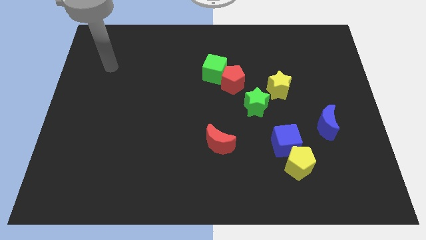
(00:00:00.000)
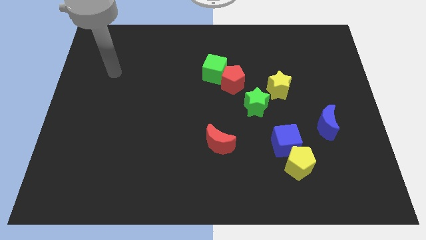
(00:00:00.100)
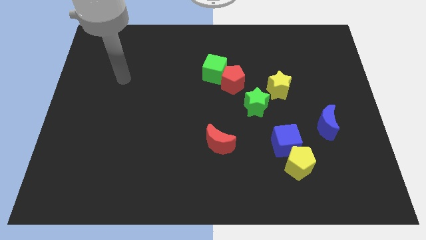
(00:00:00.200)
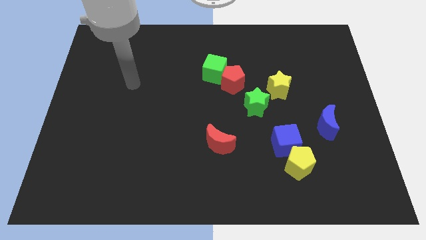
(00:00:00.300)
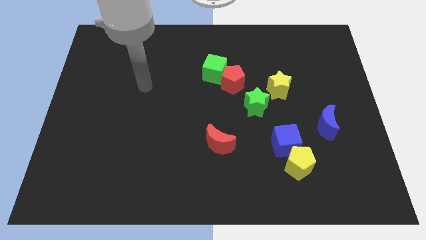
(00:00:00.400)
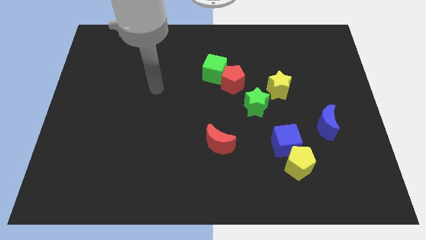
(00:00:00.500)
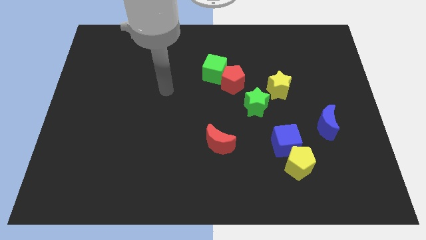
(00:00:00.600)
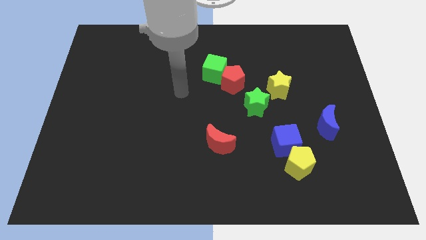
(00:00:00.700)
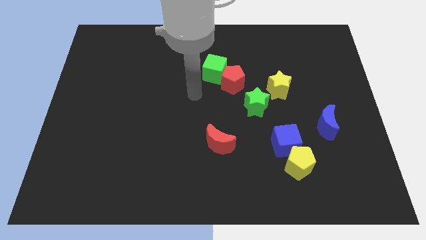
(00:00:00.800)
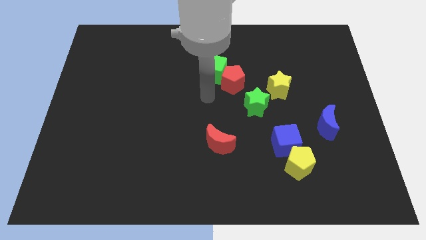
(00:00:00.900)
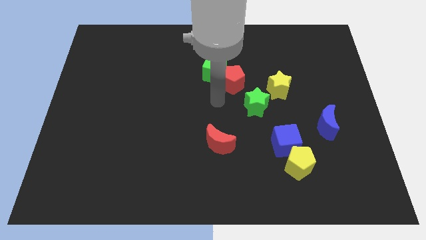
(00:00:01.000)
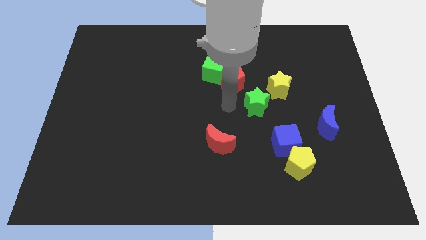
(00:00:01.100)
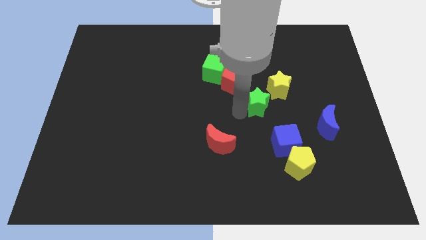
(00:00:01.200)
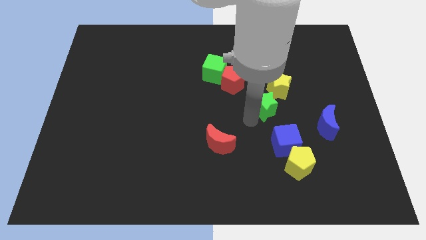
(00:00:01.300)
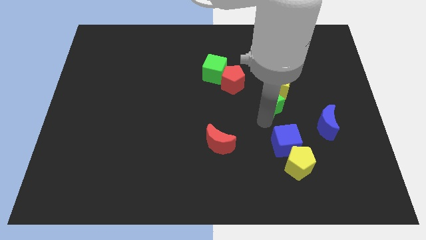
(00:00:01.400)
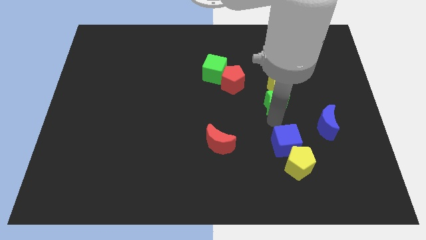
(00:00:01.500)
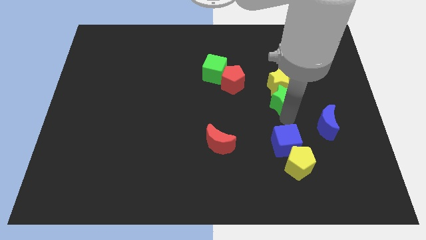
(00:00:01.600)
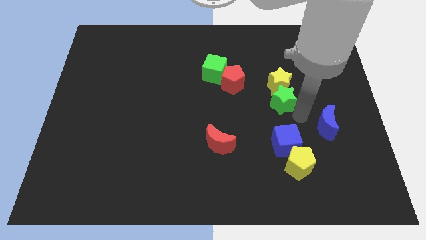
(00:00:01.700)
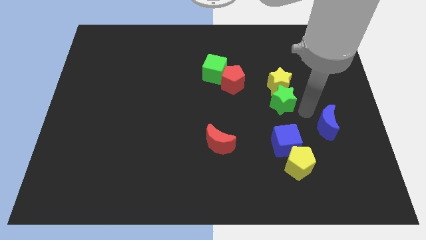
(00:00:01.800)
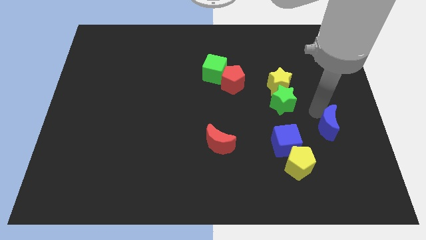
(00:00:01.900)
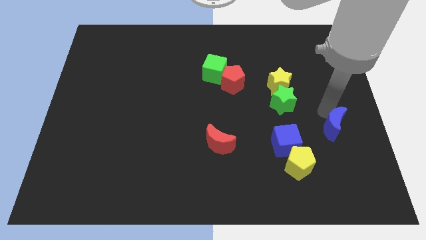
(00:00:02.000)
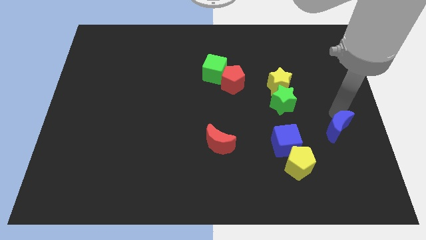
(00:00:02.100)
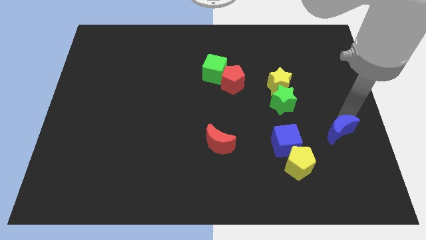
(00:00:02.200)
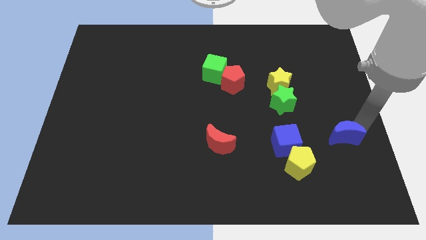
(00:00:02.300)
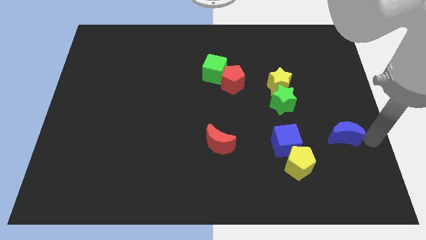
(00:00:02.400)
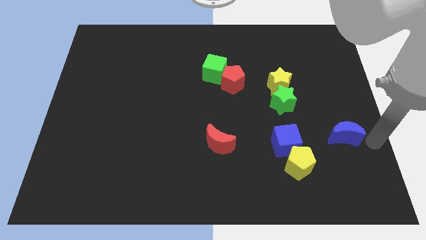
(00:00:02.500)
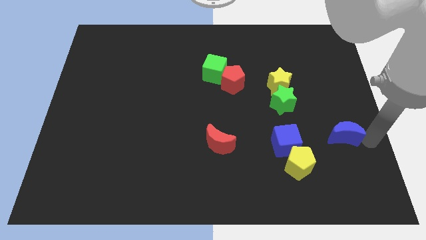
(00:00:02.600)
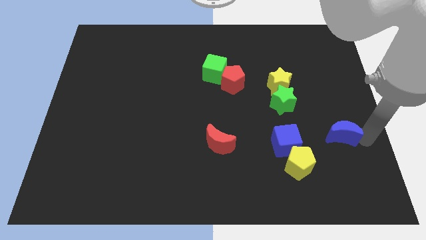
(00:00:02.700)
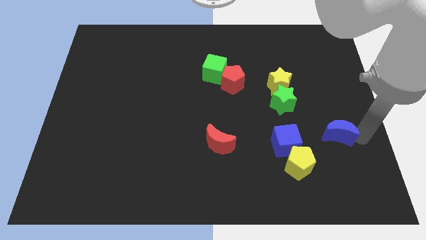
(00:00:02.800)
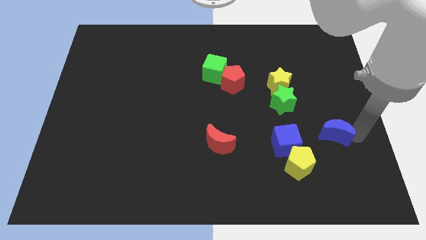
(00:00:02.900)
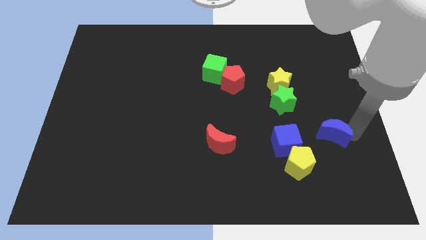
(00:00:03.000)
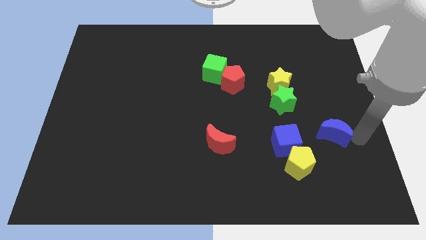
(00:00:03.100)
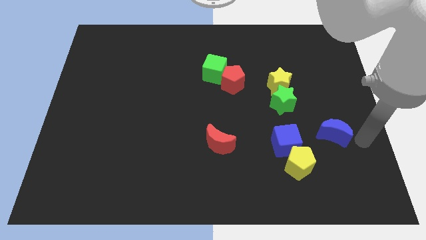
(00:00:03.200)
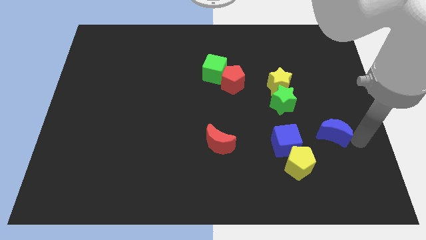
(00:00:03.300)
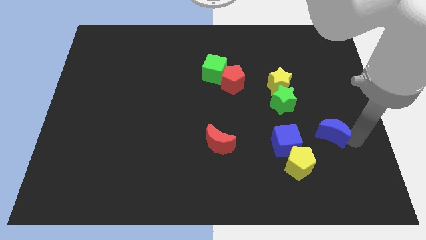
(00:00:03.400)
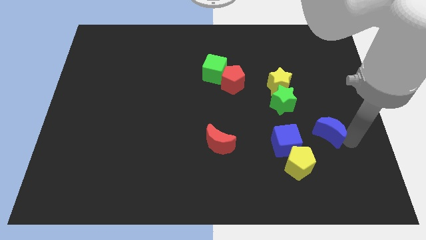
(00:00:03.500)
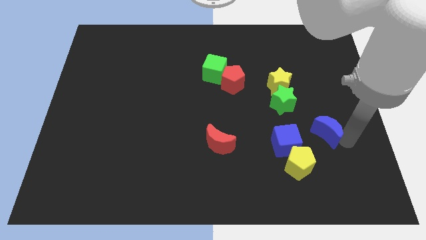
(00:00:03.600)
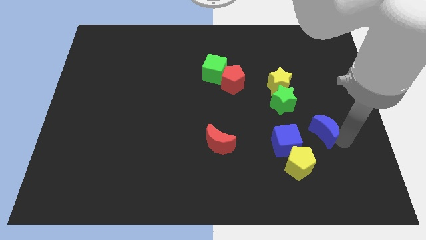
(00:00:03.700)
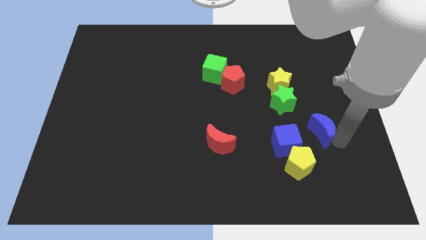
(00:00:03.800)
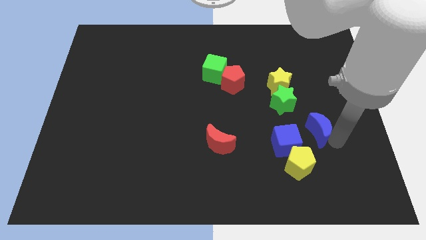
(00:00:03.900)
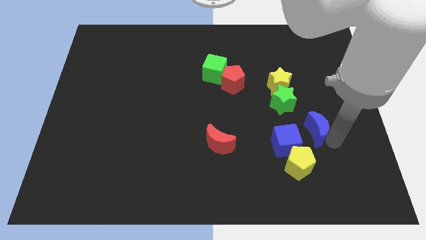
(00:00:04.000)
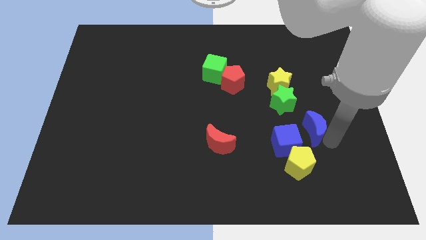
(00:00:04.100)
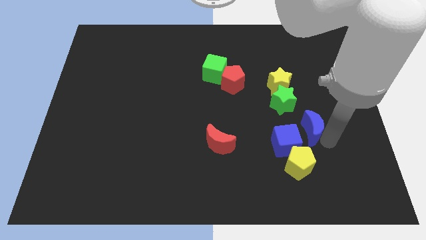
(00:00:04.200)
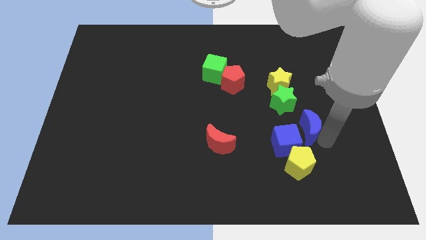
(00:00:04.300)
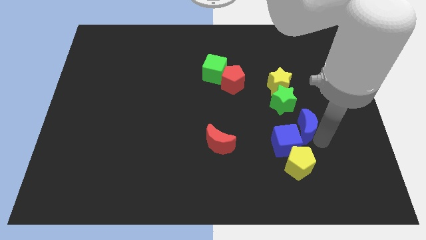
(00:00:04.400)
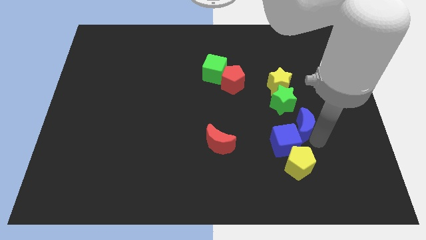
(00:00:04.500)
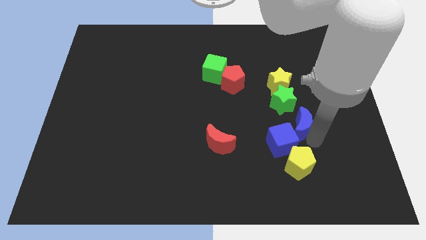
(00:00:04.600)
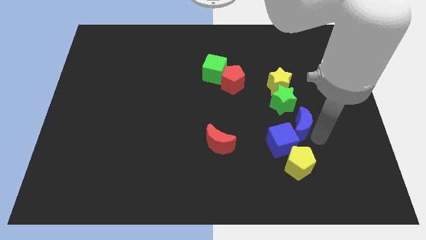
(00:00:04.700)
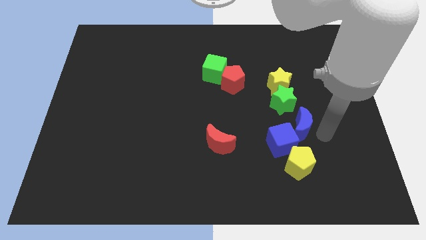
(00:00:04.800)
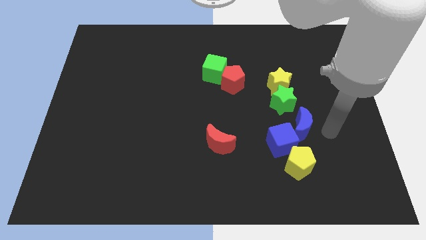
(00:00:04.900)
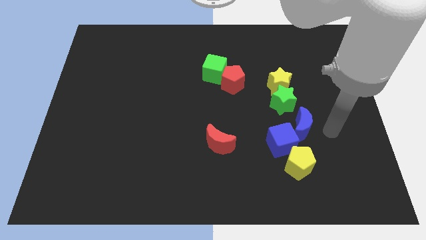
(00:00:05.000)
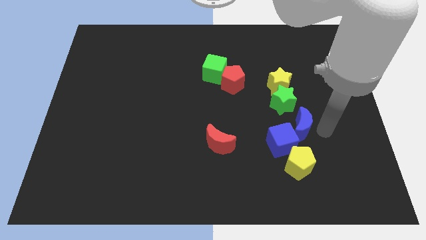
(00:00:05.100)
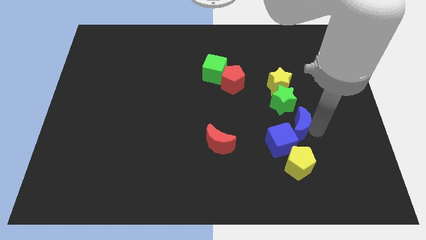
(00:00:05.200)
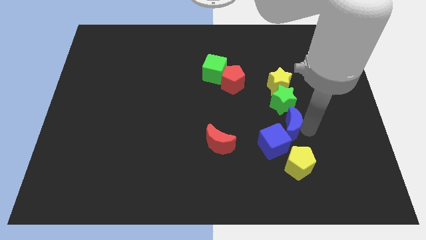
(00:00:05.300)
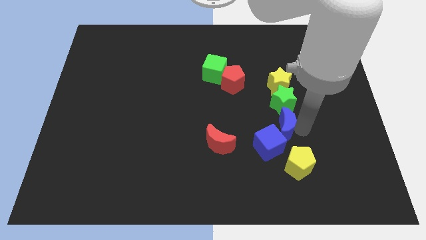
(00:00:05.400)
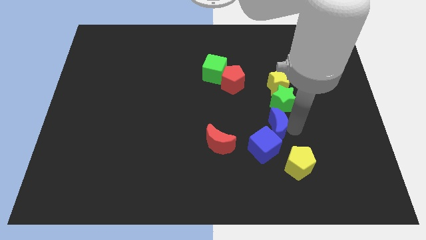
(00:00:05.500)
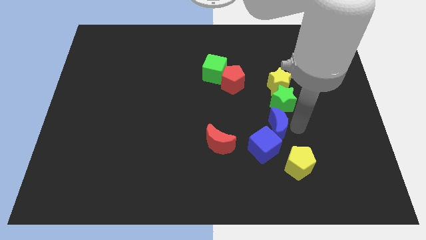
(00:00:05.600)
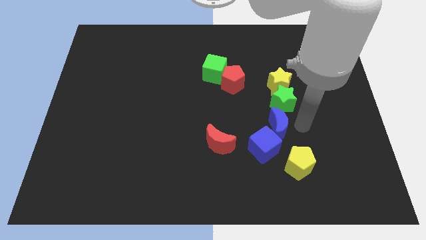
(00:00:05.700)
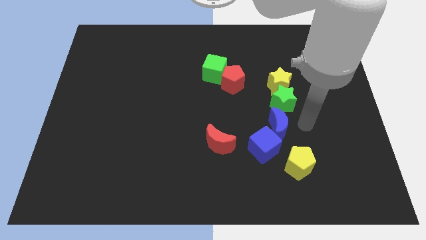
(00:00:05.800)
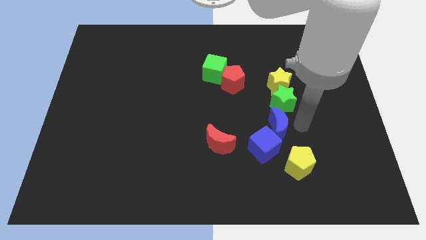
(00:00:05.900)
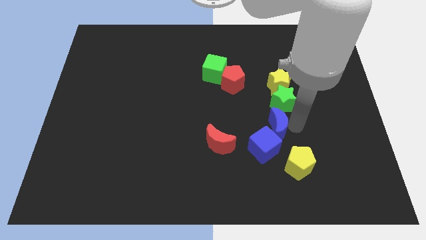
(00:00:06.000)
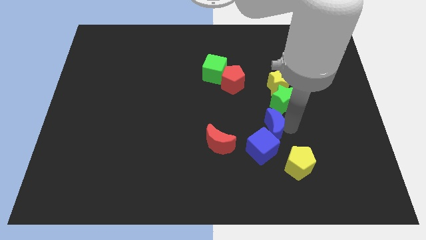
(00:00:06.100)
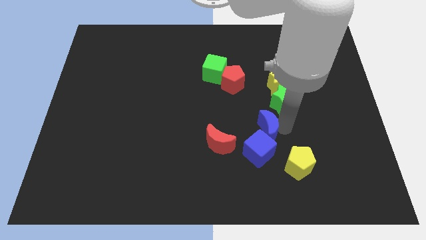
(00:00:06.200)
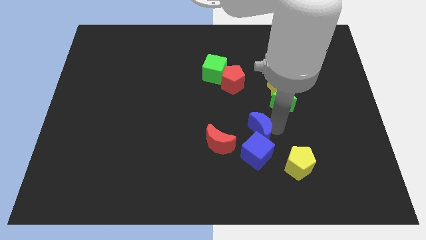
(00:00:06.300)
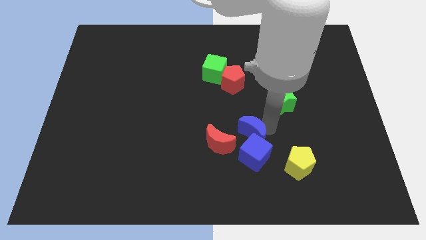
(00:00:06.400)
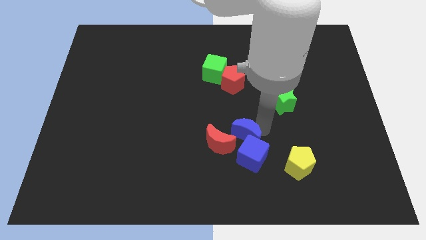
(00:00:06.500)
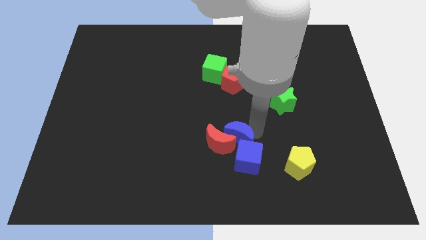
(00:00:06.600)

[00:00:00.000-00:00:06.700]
push the blue moon towards the red moon
